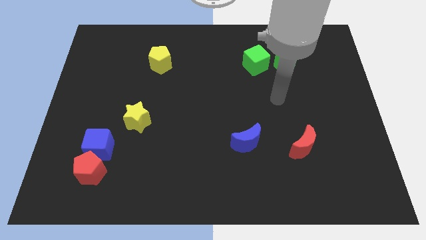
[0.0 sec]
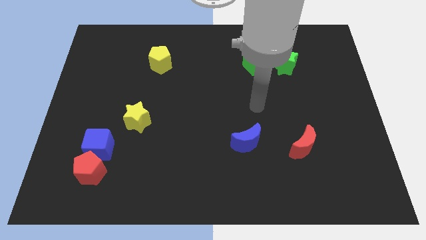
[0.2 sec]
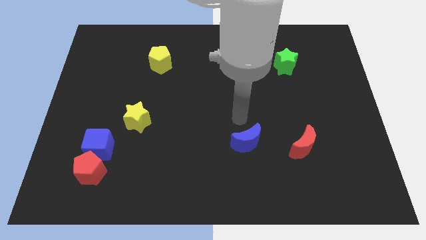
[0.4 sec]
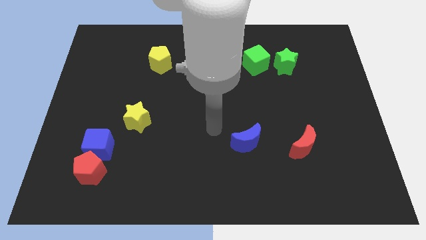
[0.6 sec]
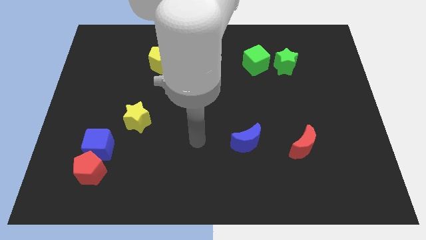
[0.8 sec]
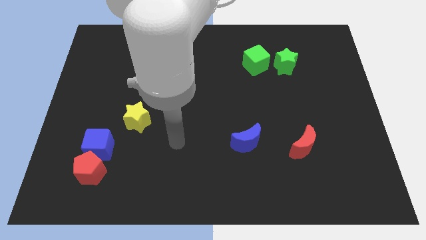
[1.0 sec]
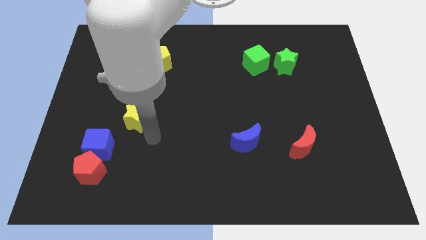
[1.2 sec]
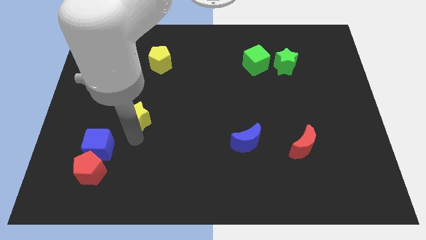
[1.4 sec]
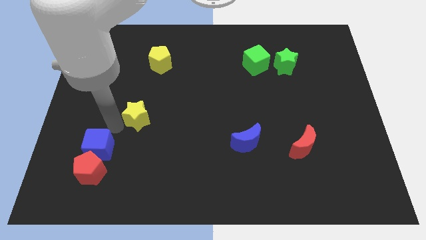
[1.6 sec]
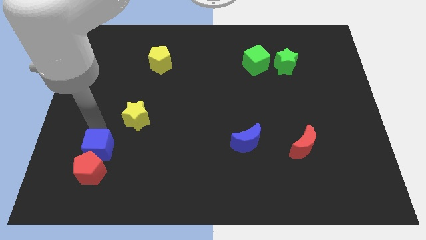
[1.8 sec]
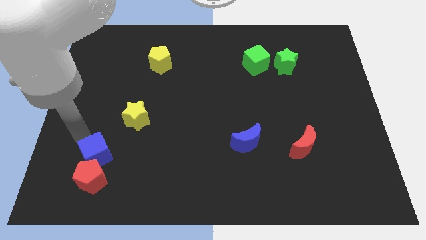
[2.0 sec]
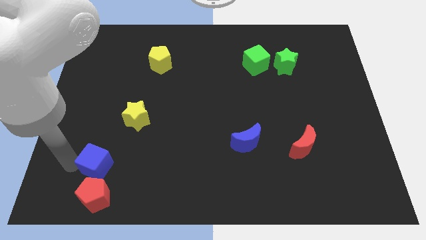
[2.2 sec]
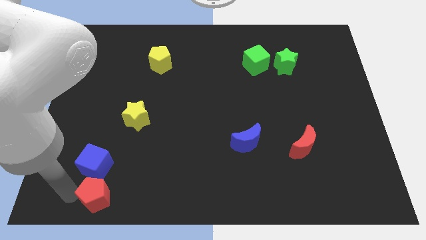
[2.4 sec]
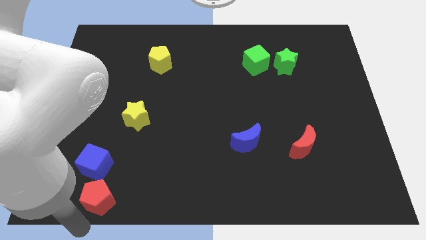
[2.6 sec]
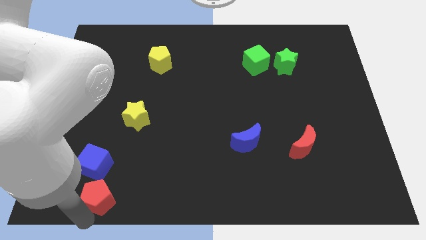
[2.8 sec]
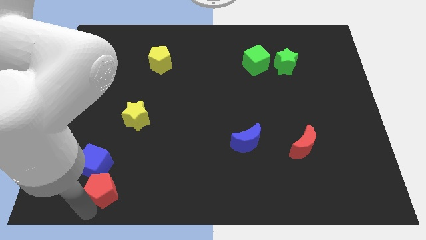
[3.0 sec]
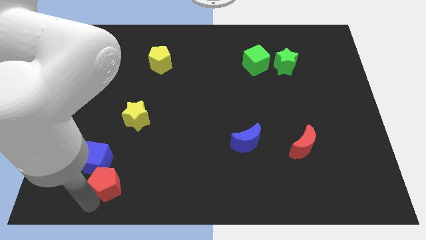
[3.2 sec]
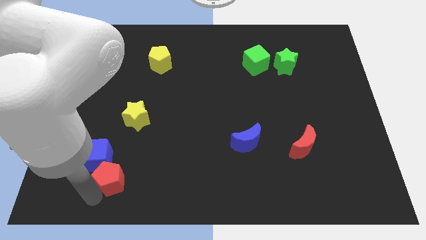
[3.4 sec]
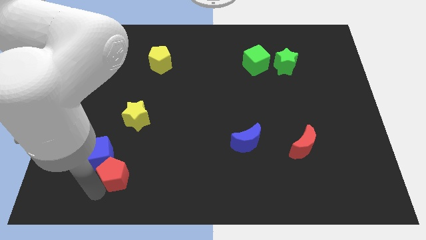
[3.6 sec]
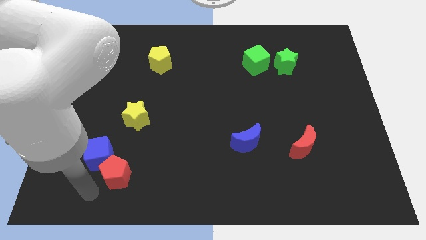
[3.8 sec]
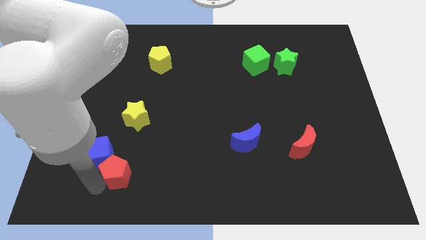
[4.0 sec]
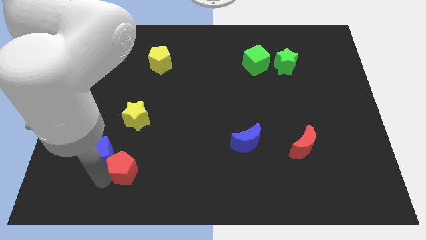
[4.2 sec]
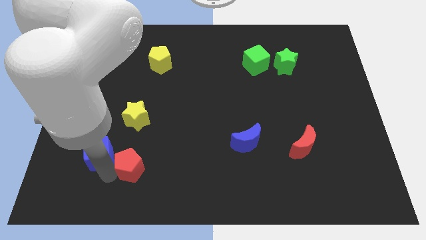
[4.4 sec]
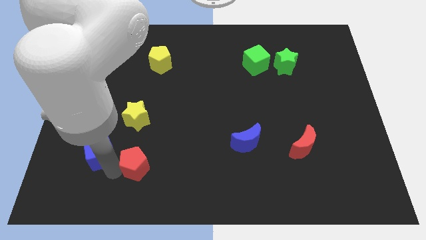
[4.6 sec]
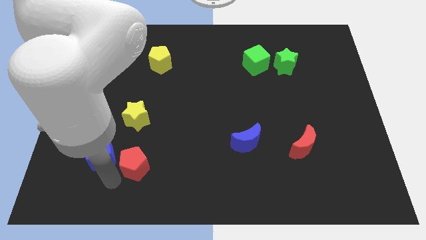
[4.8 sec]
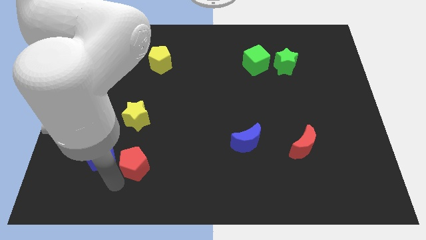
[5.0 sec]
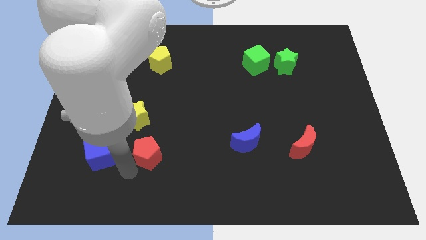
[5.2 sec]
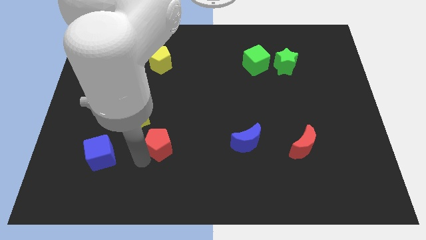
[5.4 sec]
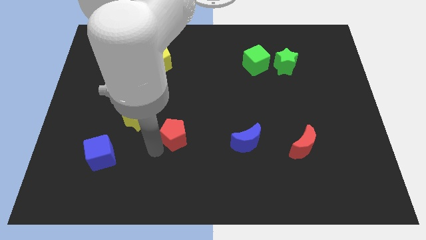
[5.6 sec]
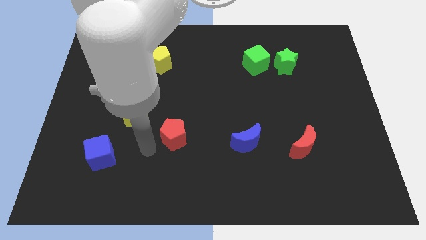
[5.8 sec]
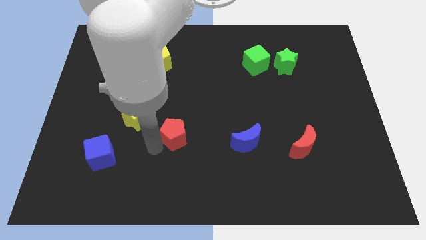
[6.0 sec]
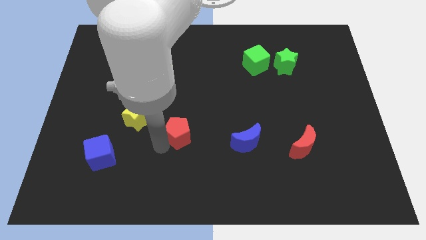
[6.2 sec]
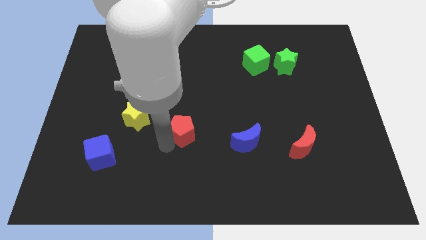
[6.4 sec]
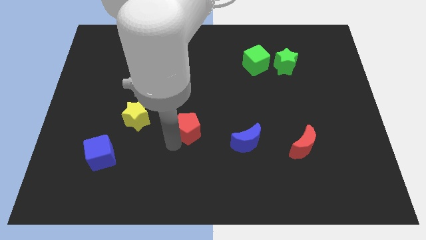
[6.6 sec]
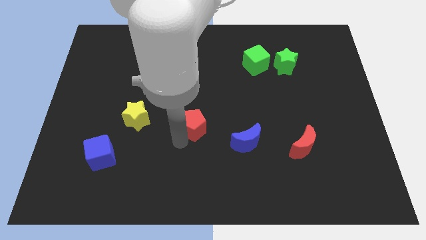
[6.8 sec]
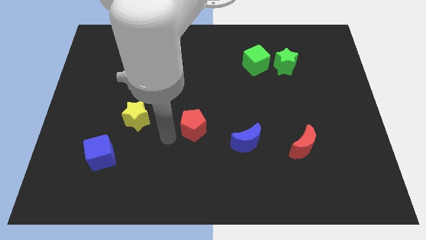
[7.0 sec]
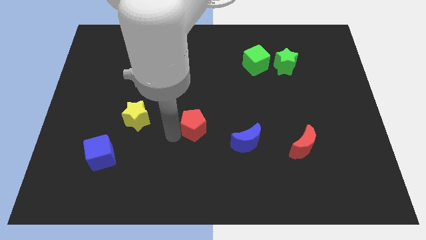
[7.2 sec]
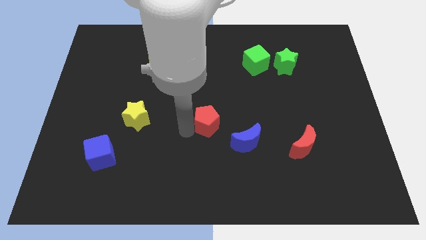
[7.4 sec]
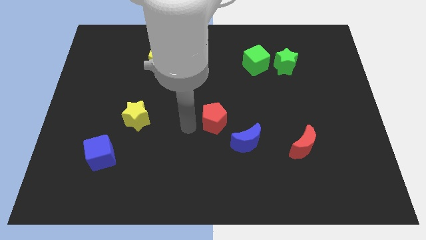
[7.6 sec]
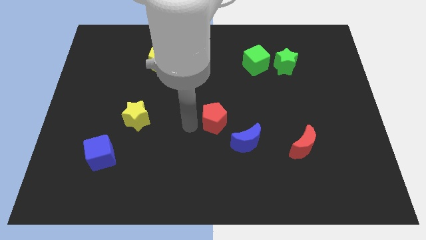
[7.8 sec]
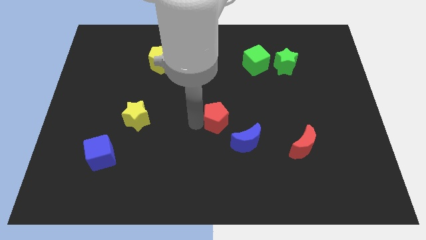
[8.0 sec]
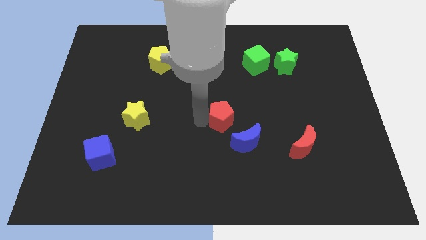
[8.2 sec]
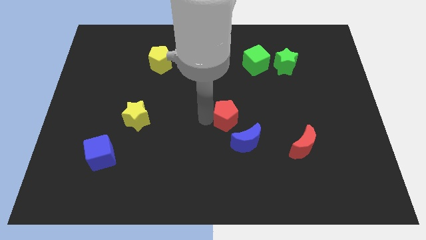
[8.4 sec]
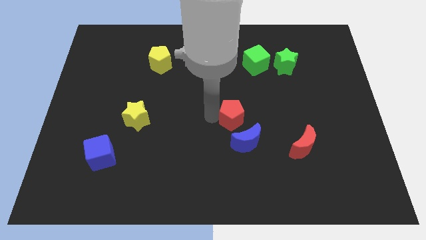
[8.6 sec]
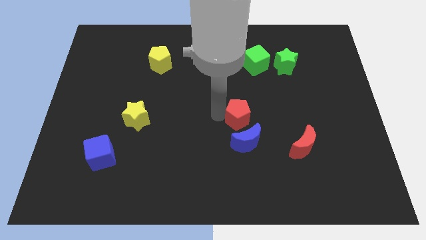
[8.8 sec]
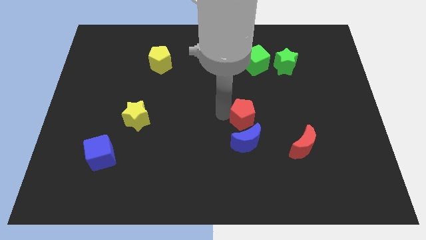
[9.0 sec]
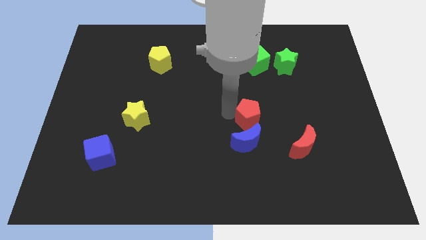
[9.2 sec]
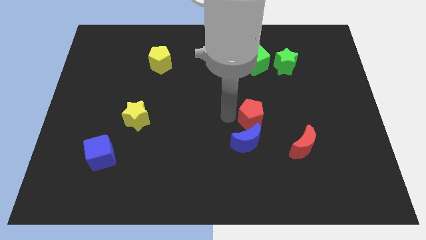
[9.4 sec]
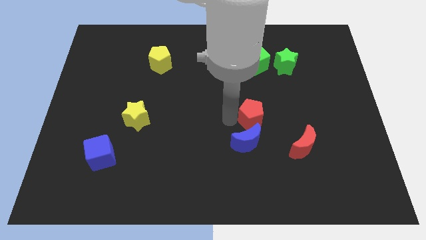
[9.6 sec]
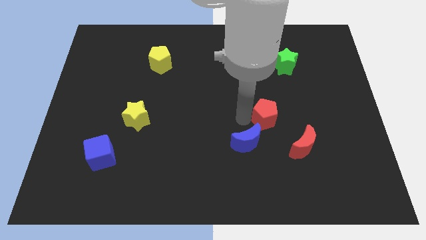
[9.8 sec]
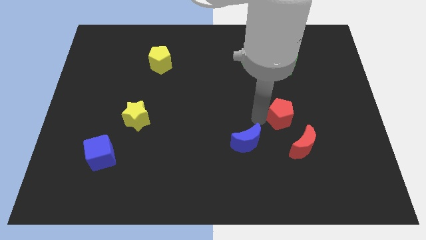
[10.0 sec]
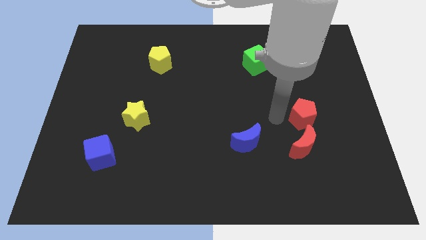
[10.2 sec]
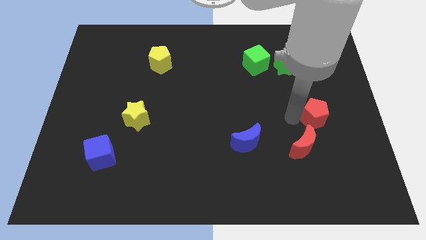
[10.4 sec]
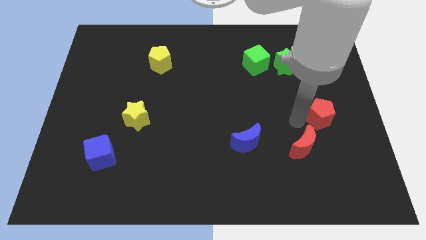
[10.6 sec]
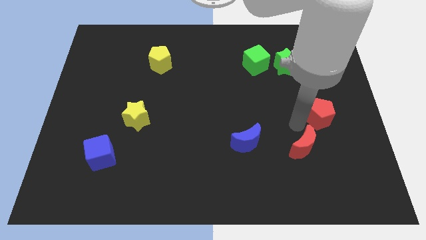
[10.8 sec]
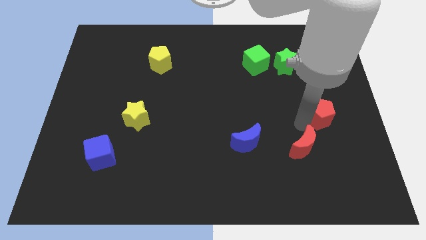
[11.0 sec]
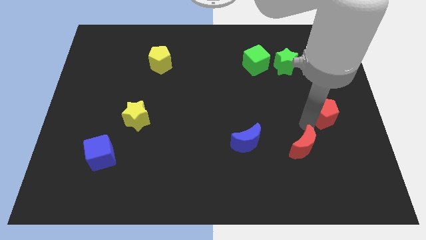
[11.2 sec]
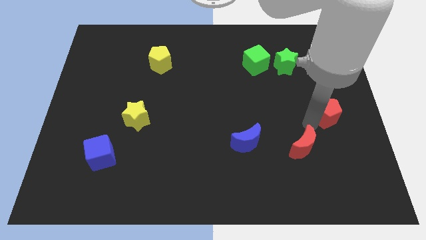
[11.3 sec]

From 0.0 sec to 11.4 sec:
move the red pentagon to the center right

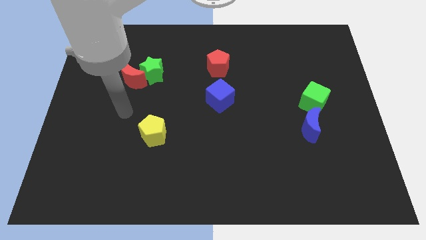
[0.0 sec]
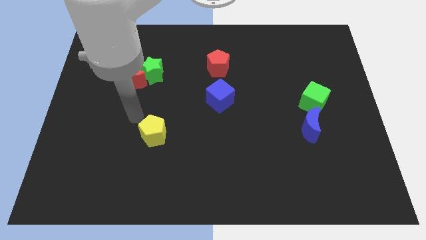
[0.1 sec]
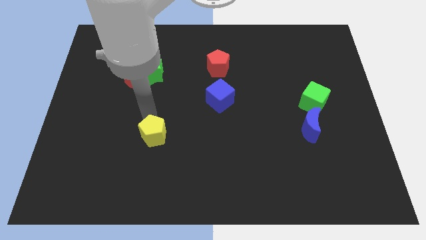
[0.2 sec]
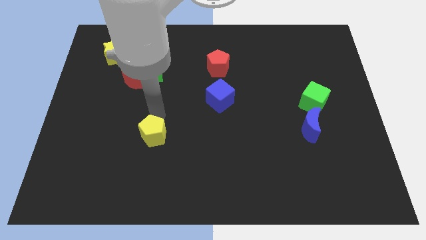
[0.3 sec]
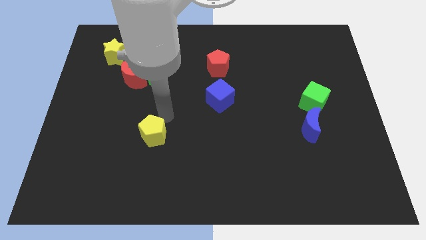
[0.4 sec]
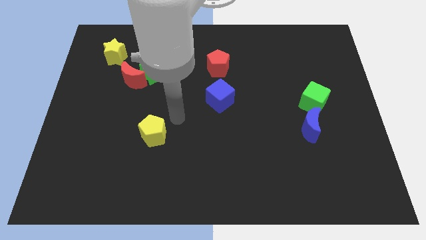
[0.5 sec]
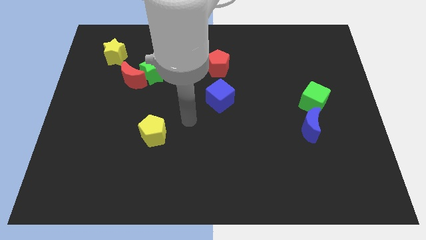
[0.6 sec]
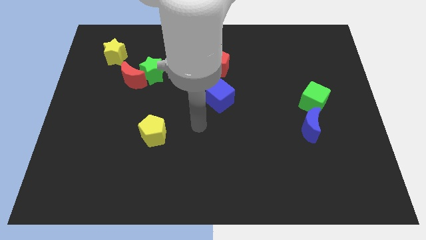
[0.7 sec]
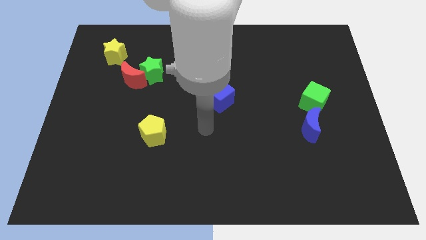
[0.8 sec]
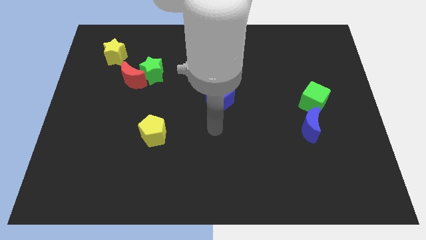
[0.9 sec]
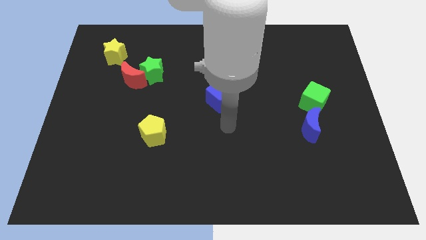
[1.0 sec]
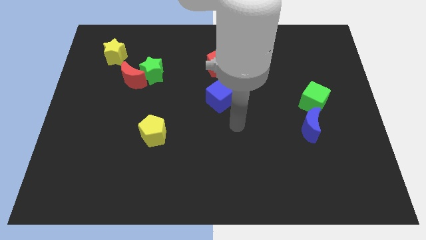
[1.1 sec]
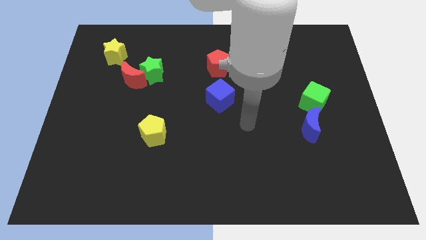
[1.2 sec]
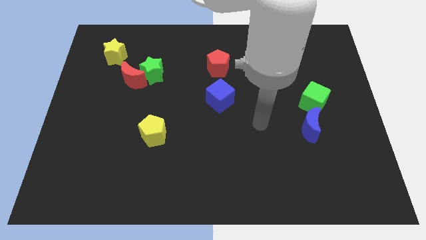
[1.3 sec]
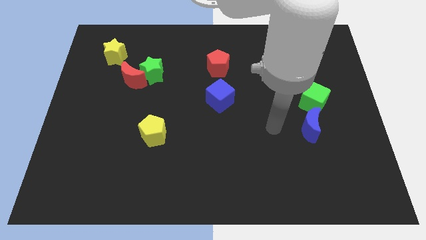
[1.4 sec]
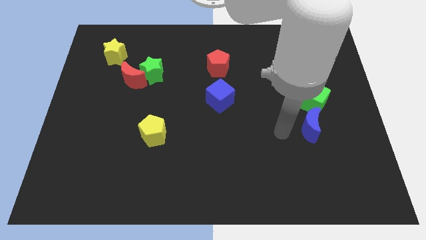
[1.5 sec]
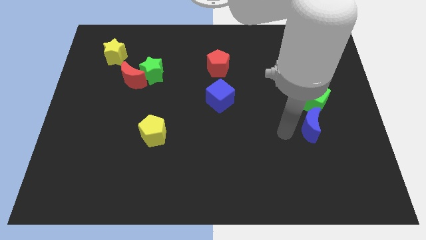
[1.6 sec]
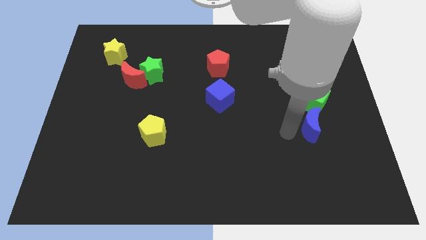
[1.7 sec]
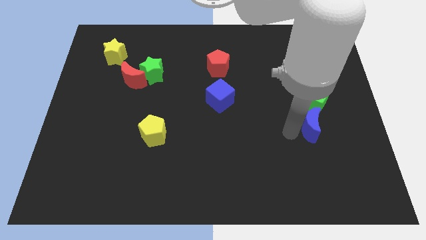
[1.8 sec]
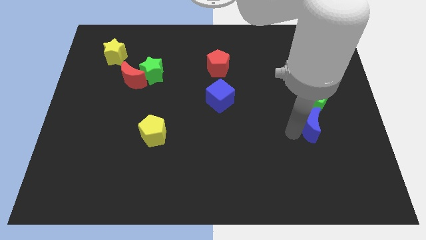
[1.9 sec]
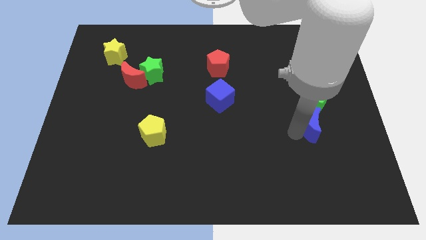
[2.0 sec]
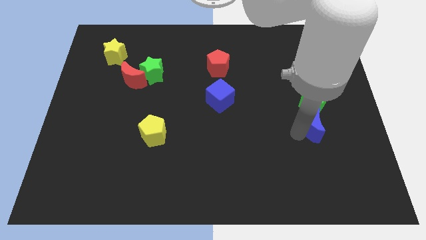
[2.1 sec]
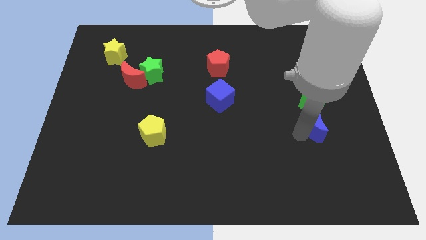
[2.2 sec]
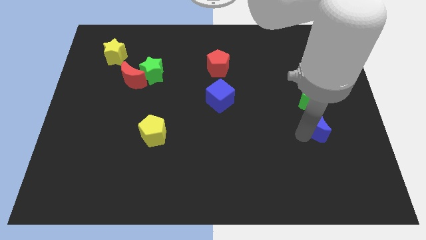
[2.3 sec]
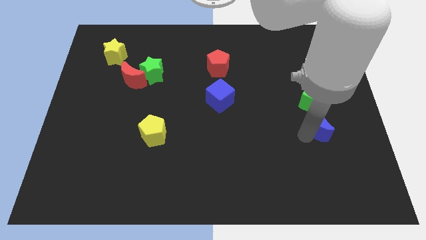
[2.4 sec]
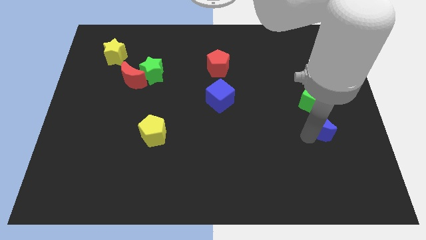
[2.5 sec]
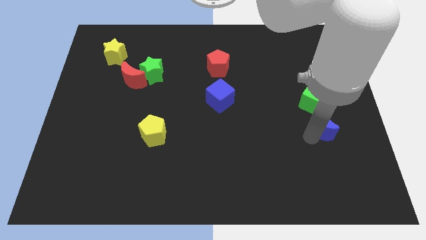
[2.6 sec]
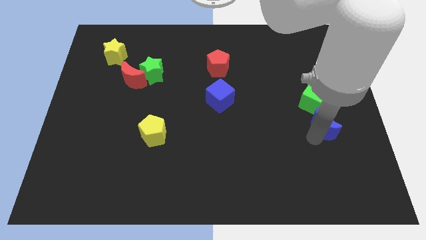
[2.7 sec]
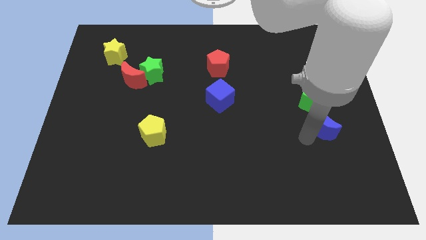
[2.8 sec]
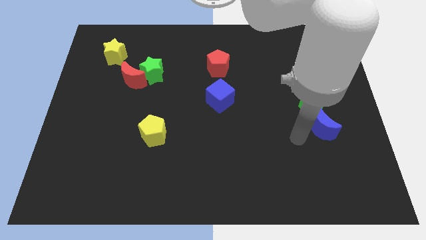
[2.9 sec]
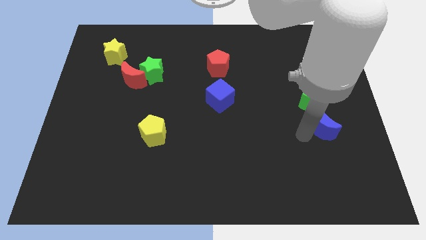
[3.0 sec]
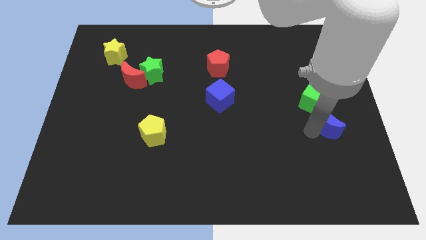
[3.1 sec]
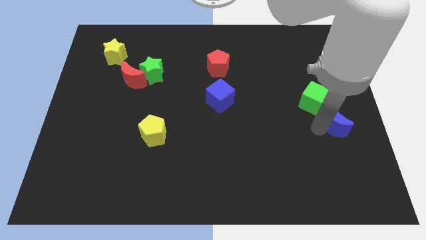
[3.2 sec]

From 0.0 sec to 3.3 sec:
push the blue moon to the center right
